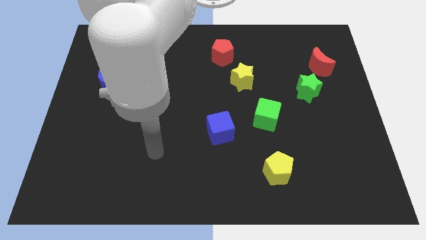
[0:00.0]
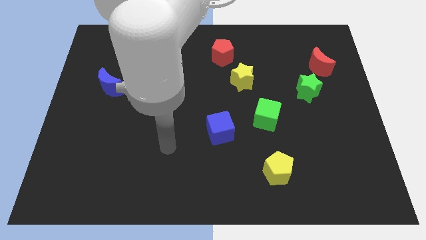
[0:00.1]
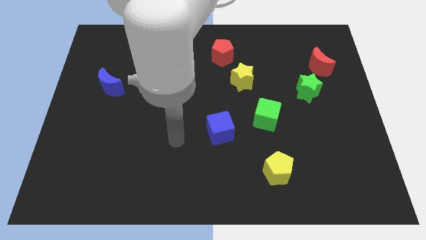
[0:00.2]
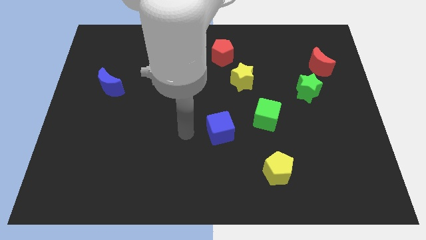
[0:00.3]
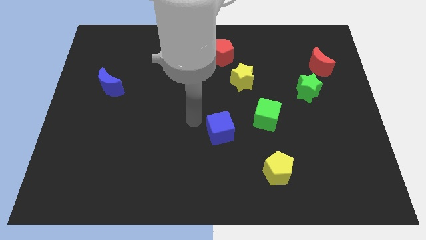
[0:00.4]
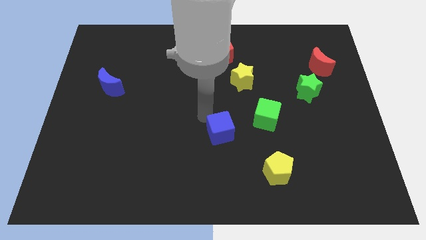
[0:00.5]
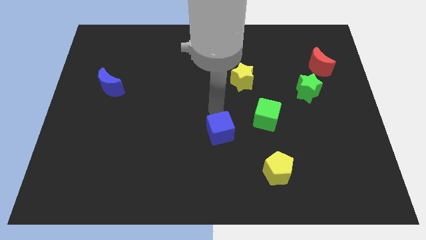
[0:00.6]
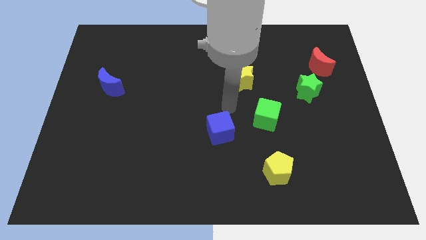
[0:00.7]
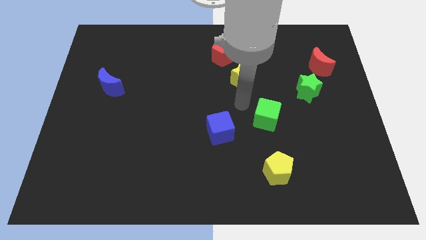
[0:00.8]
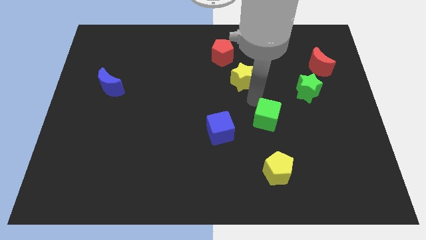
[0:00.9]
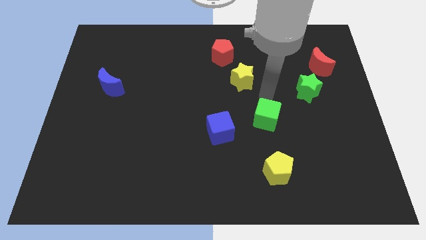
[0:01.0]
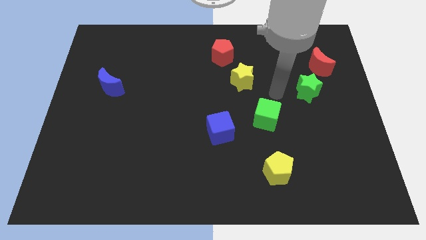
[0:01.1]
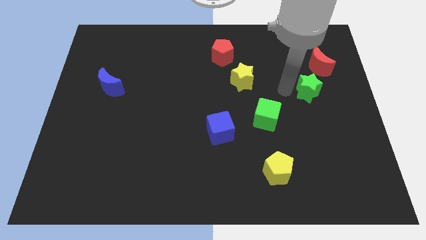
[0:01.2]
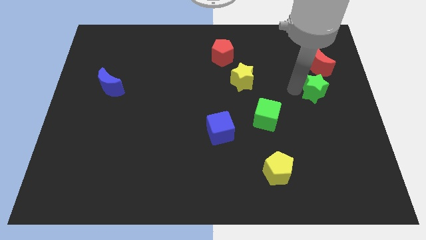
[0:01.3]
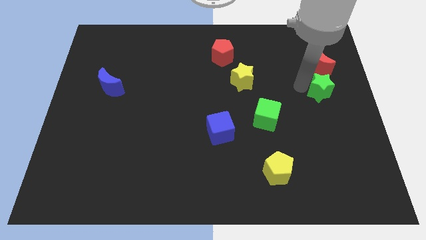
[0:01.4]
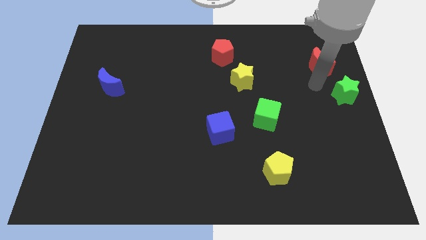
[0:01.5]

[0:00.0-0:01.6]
pull the red moon apart from the green star

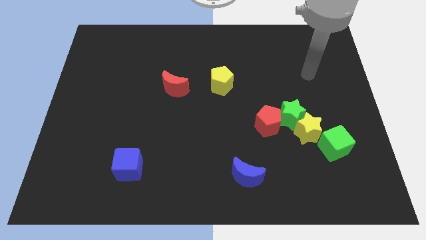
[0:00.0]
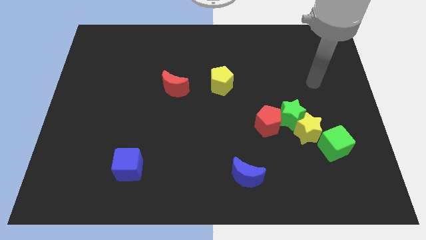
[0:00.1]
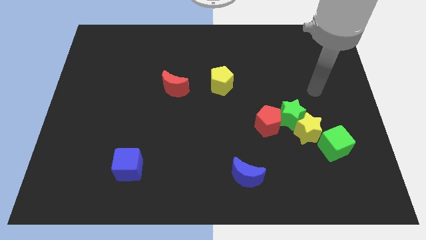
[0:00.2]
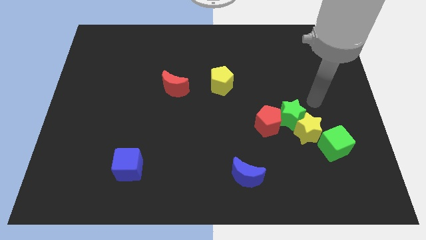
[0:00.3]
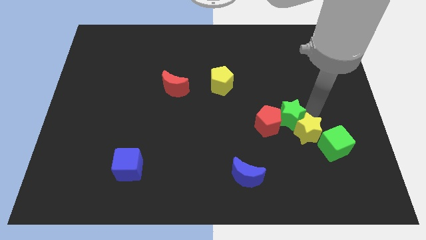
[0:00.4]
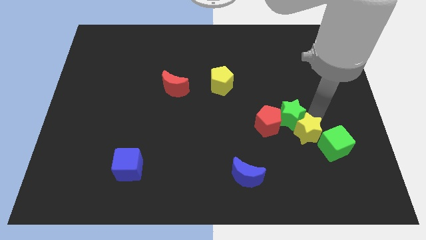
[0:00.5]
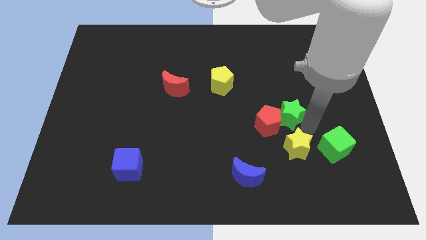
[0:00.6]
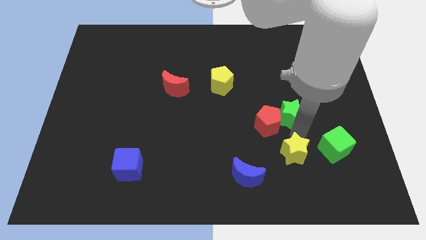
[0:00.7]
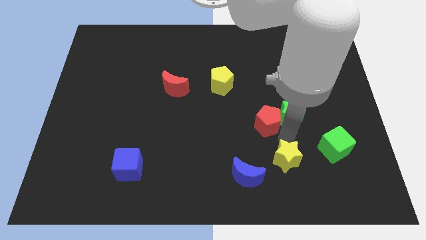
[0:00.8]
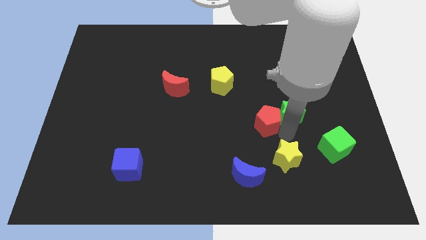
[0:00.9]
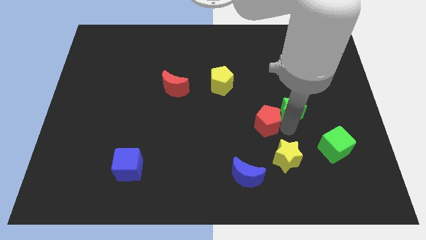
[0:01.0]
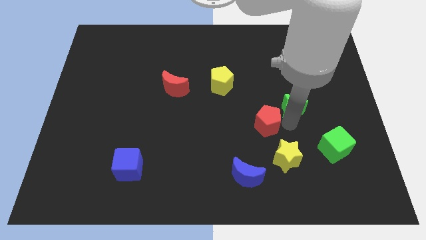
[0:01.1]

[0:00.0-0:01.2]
move the green star away from the yellow star and red pentagon

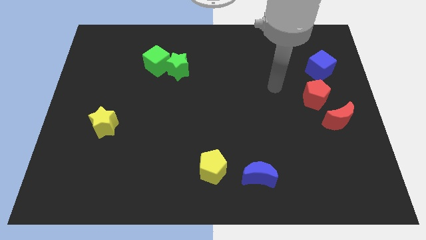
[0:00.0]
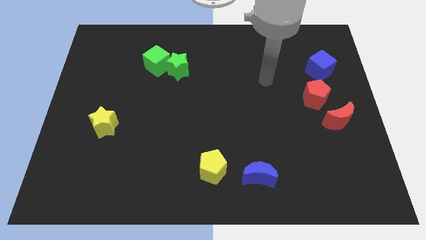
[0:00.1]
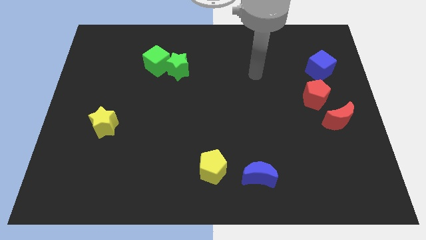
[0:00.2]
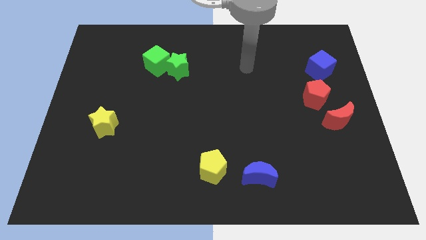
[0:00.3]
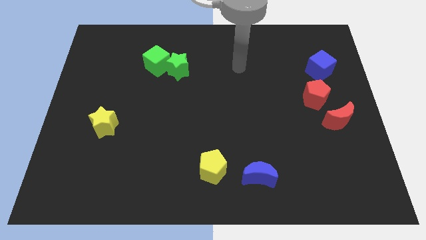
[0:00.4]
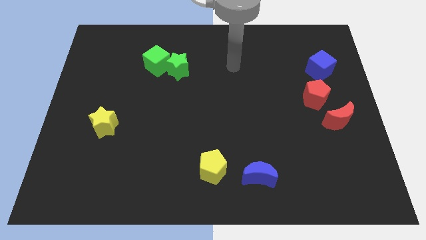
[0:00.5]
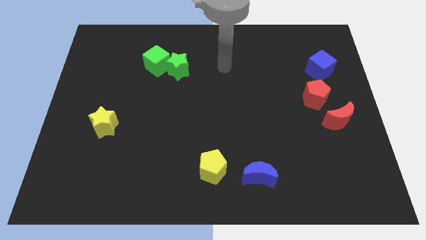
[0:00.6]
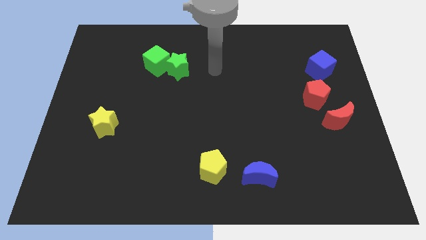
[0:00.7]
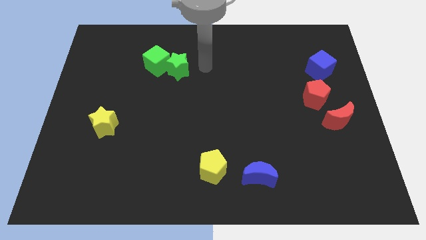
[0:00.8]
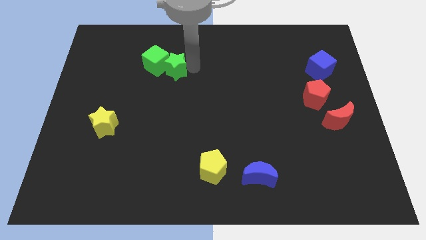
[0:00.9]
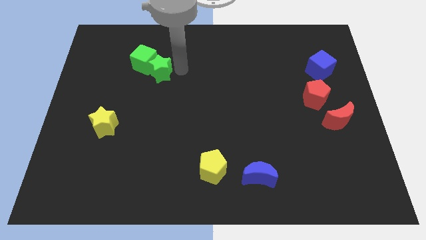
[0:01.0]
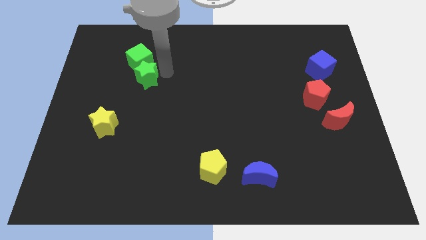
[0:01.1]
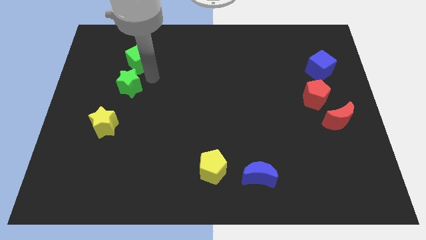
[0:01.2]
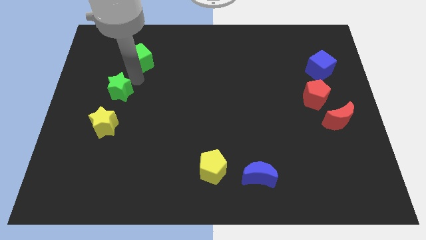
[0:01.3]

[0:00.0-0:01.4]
separate the green cube from the green star

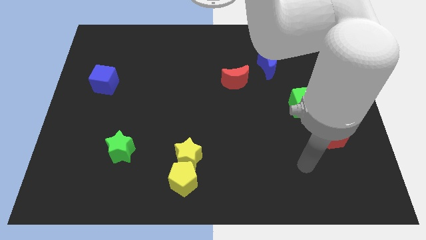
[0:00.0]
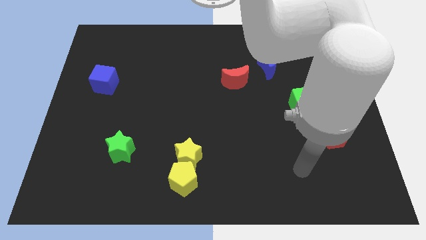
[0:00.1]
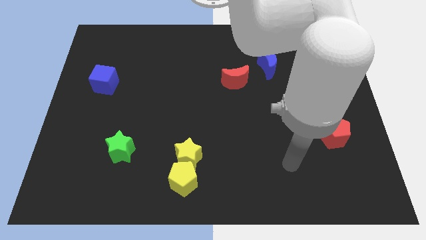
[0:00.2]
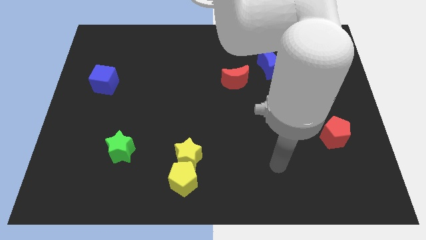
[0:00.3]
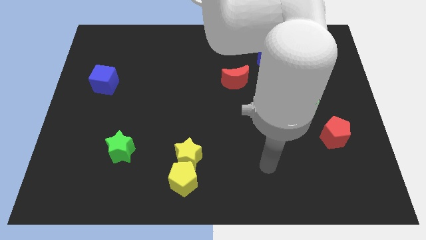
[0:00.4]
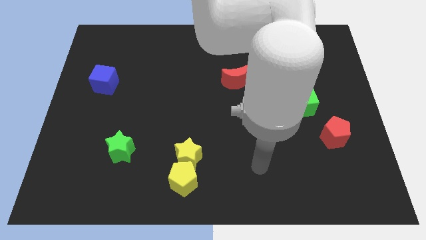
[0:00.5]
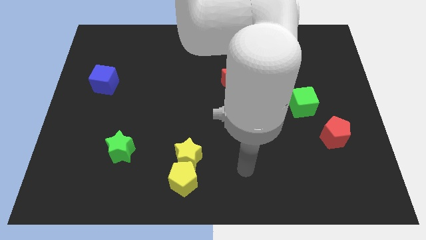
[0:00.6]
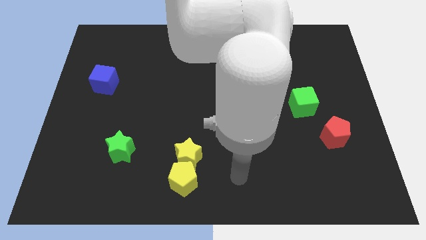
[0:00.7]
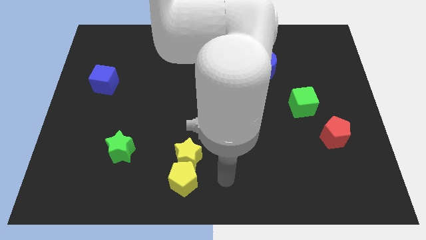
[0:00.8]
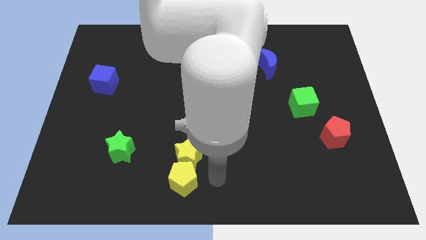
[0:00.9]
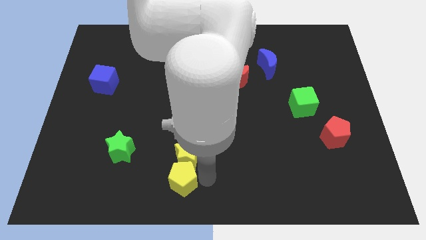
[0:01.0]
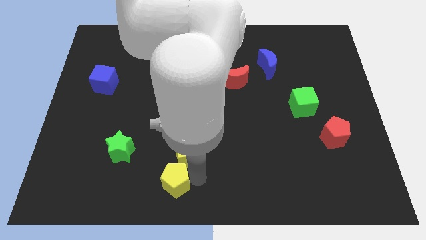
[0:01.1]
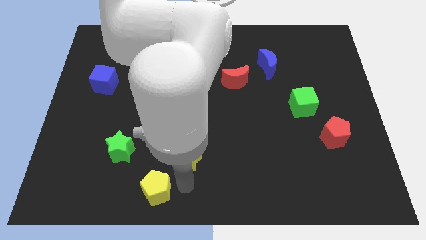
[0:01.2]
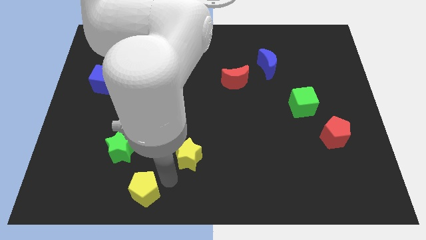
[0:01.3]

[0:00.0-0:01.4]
separate the yellow star from the yellow pentagon

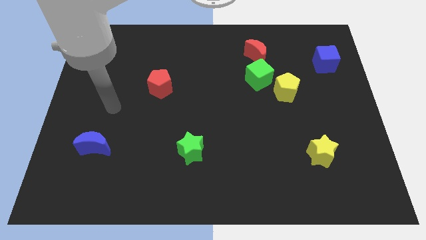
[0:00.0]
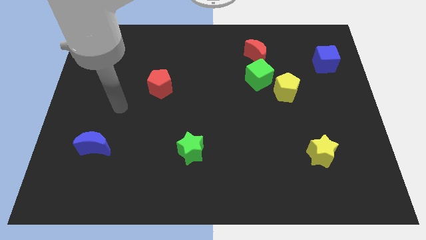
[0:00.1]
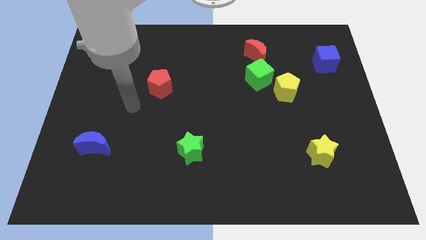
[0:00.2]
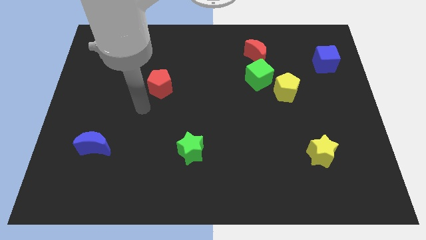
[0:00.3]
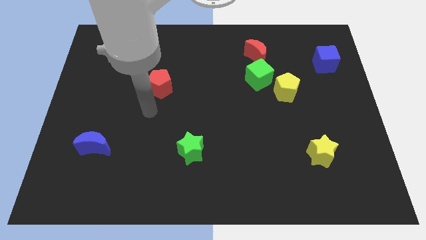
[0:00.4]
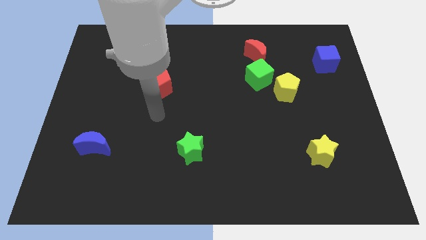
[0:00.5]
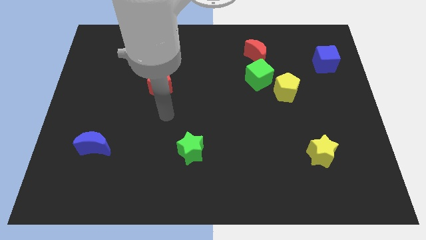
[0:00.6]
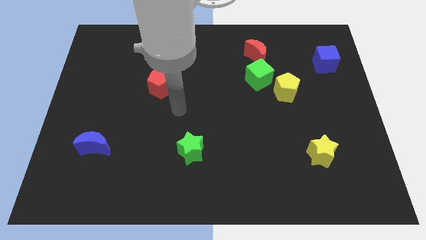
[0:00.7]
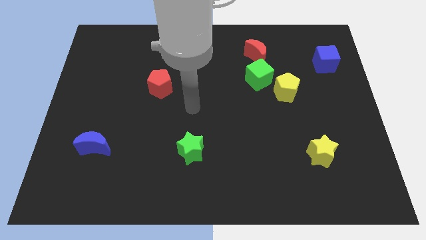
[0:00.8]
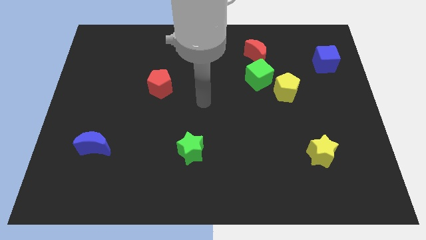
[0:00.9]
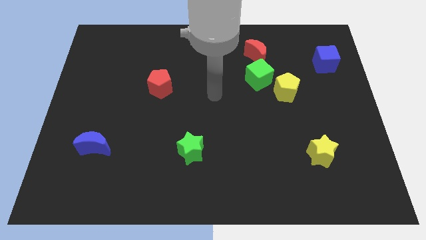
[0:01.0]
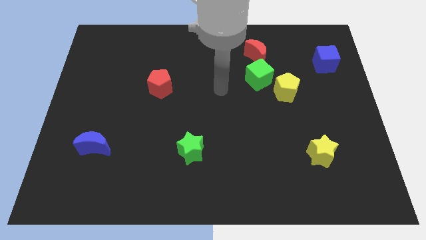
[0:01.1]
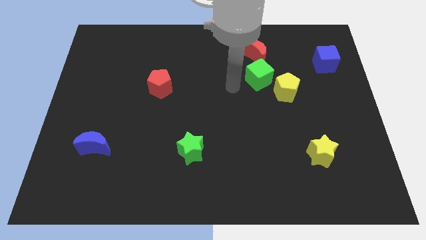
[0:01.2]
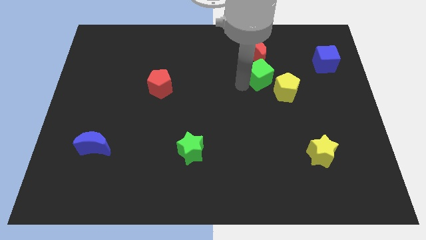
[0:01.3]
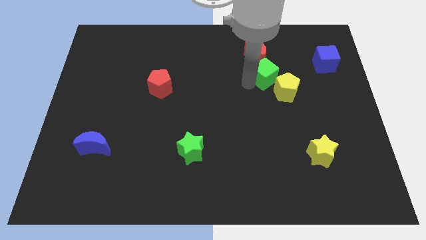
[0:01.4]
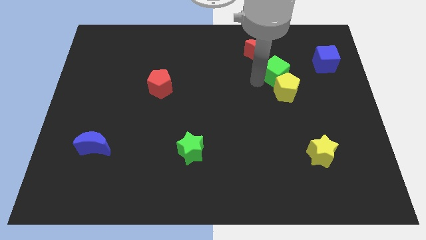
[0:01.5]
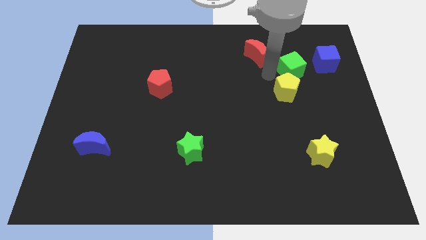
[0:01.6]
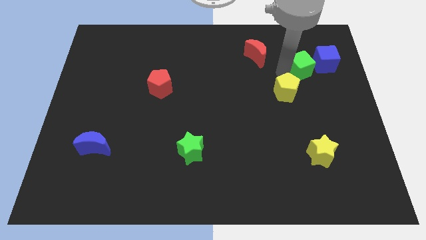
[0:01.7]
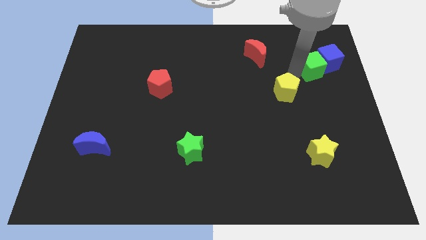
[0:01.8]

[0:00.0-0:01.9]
move the yellow pentagon away from the green cube

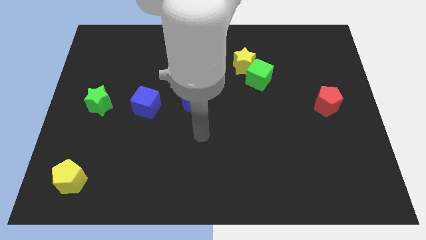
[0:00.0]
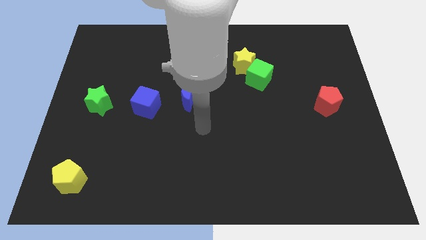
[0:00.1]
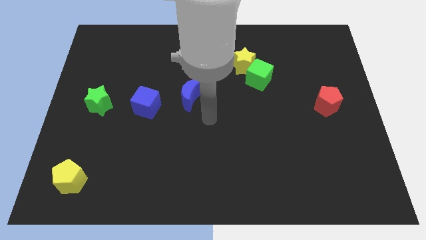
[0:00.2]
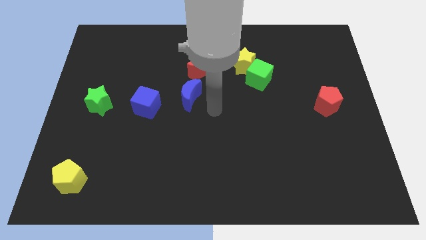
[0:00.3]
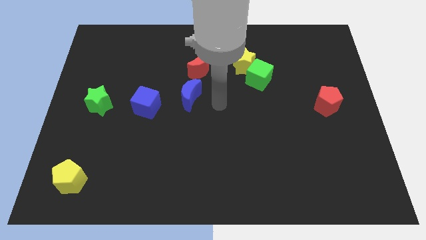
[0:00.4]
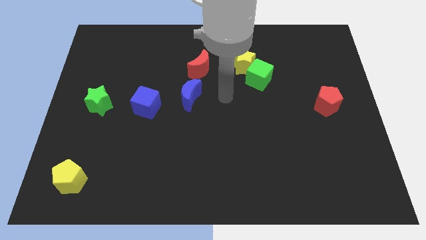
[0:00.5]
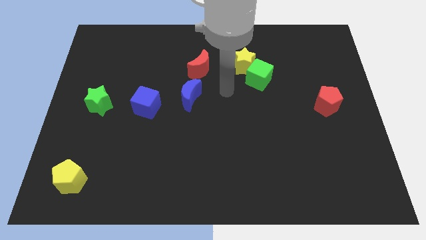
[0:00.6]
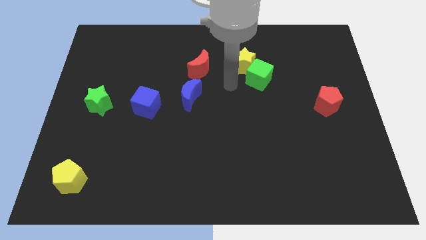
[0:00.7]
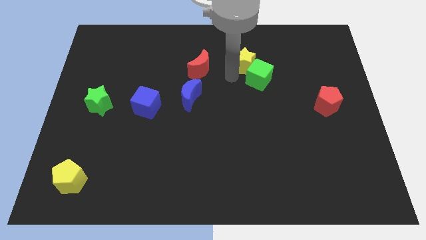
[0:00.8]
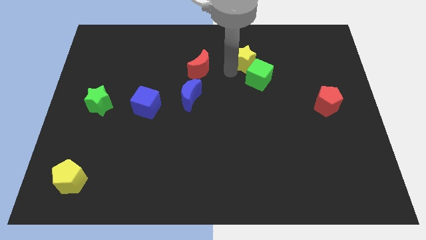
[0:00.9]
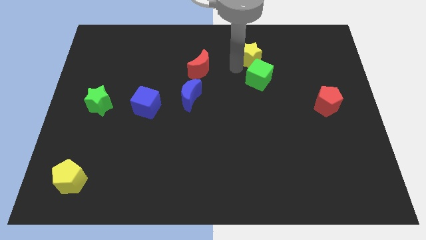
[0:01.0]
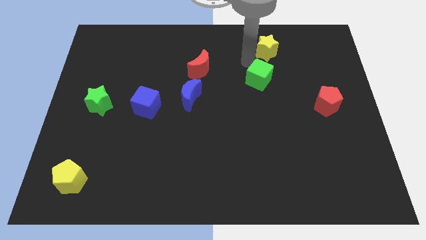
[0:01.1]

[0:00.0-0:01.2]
move the green cube away from the yellow star

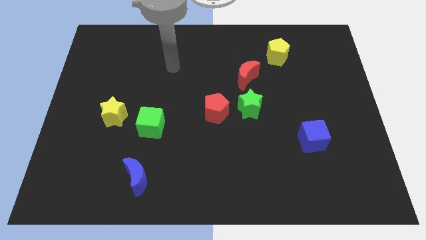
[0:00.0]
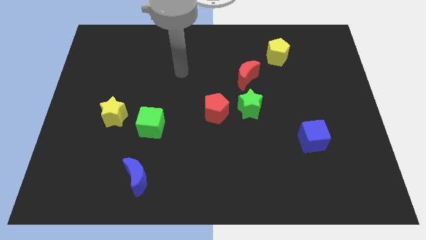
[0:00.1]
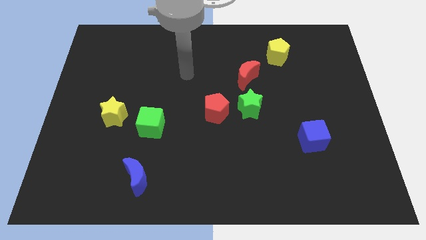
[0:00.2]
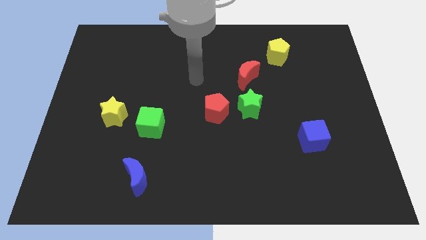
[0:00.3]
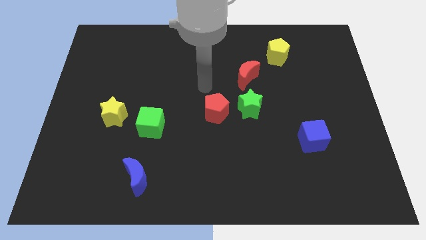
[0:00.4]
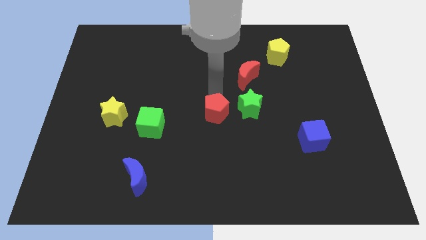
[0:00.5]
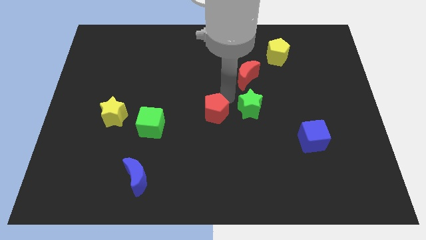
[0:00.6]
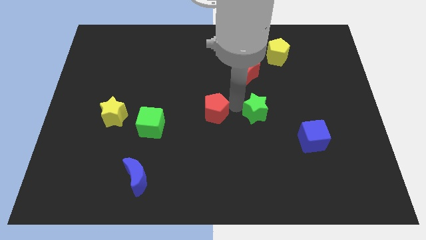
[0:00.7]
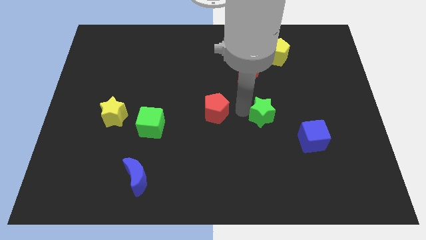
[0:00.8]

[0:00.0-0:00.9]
move the red pentagon away from the green star
